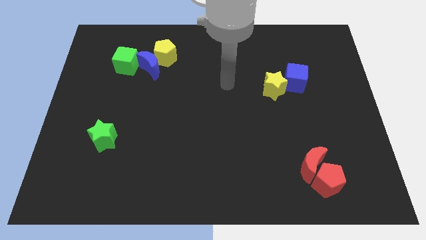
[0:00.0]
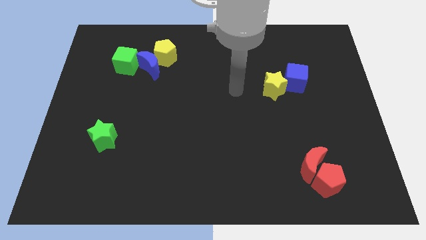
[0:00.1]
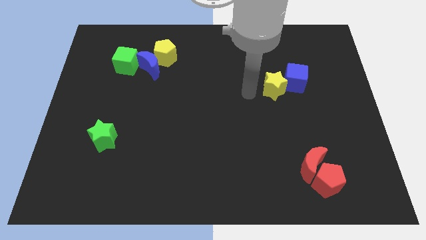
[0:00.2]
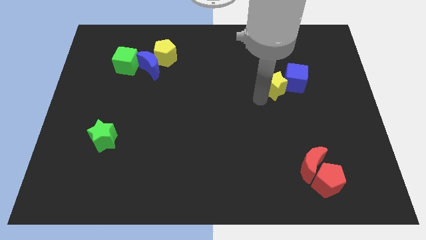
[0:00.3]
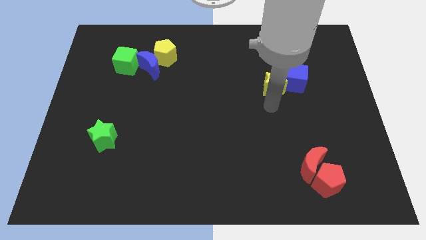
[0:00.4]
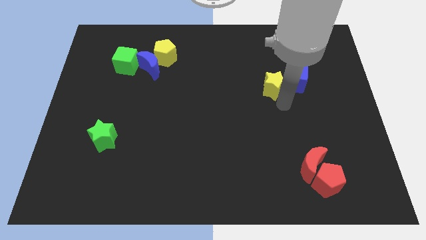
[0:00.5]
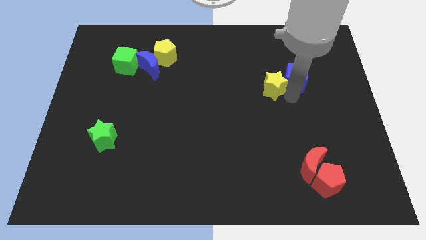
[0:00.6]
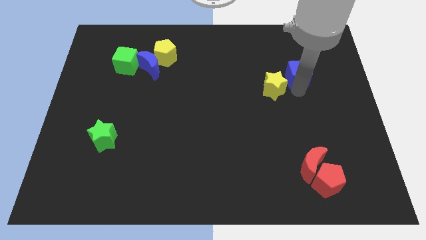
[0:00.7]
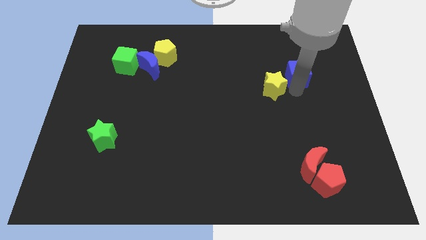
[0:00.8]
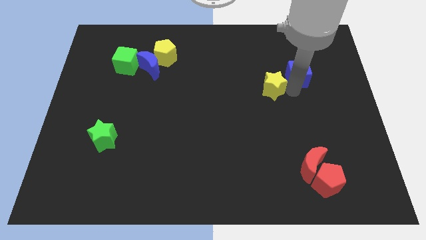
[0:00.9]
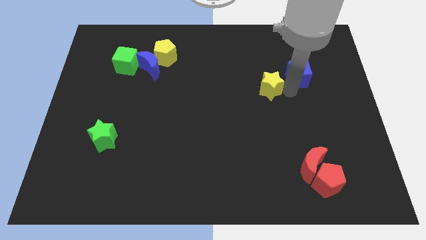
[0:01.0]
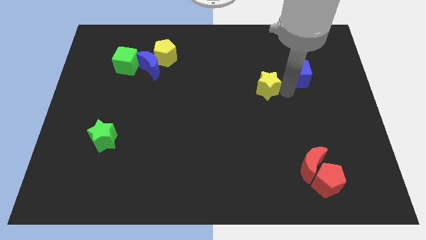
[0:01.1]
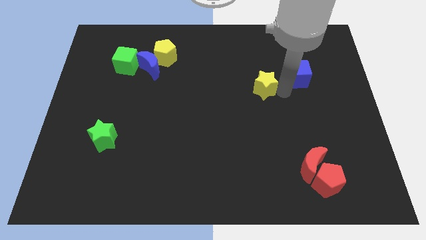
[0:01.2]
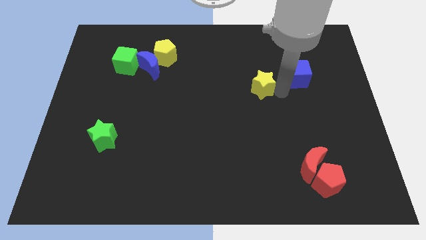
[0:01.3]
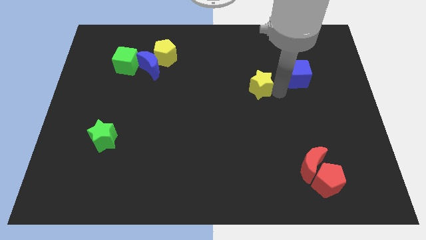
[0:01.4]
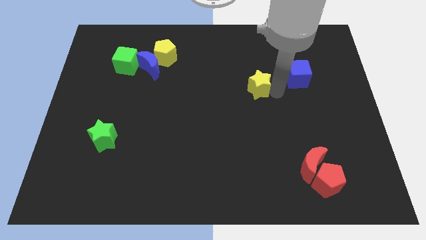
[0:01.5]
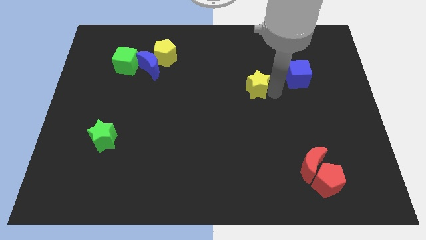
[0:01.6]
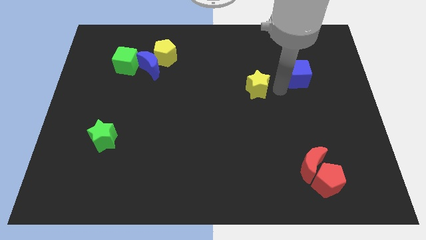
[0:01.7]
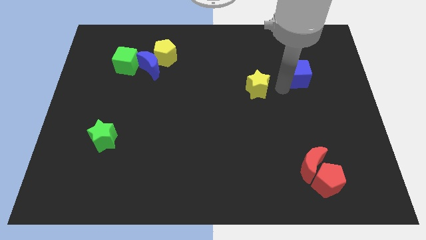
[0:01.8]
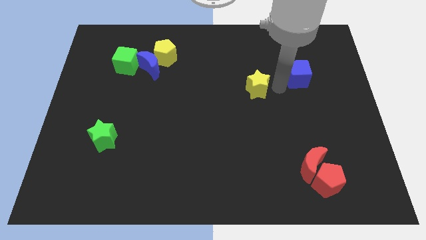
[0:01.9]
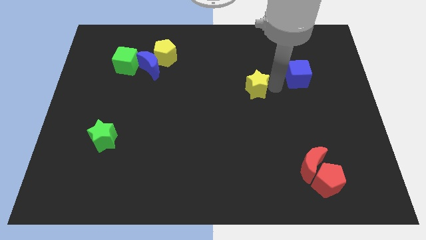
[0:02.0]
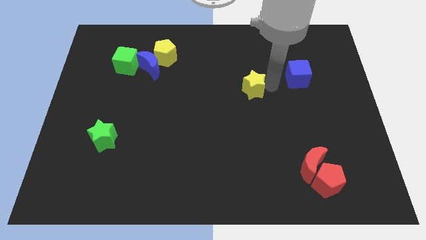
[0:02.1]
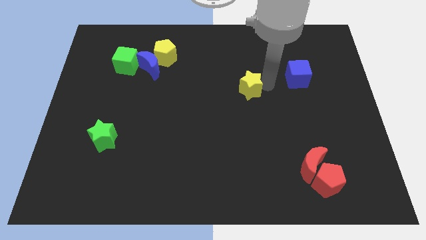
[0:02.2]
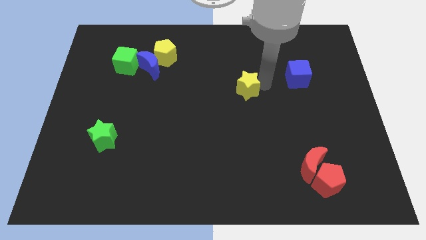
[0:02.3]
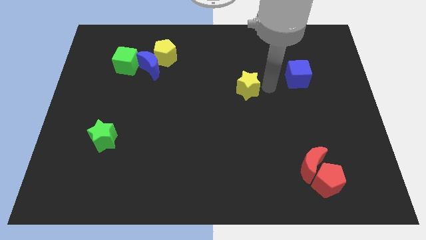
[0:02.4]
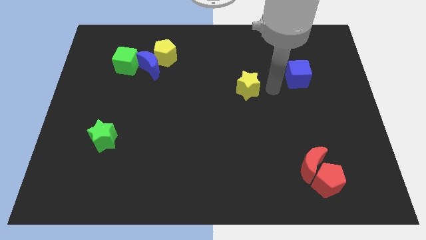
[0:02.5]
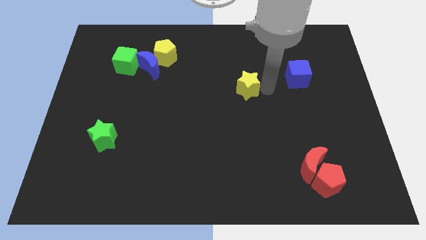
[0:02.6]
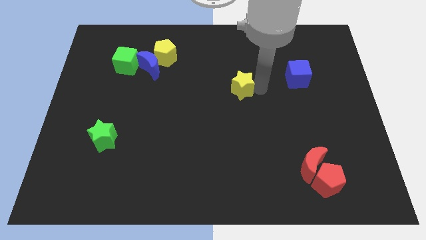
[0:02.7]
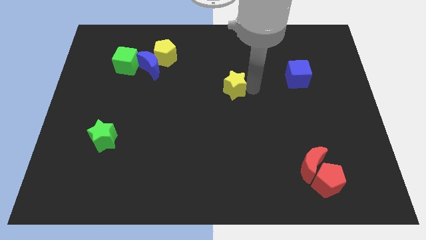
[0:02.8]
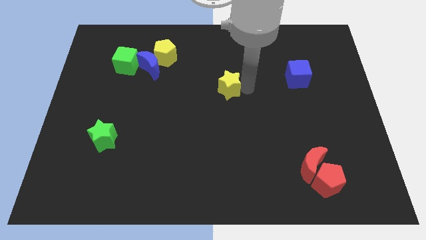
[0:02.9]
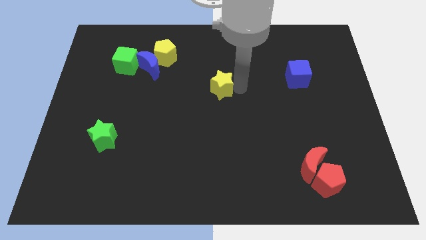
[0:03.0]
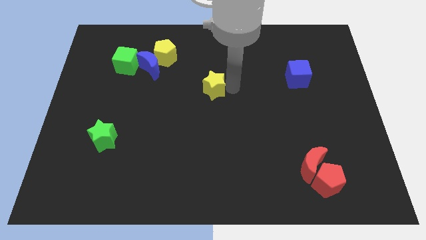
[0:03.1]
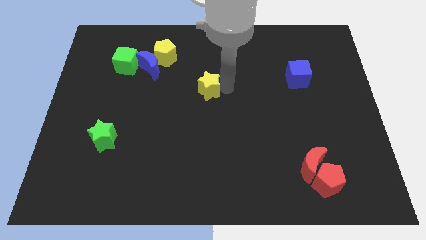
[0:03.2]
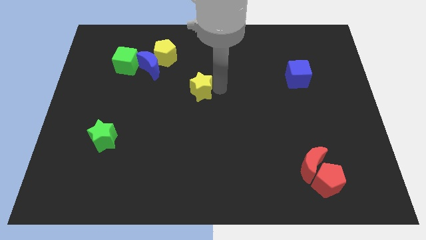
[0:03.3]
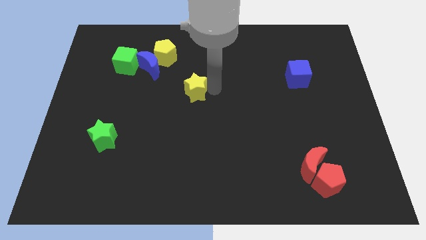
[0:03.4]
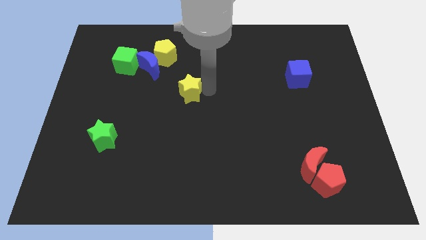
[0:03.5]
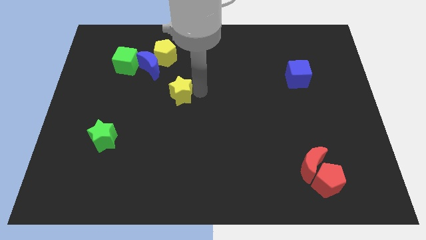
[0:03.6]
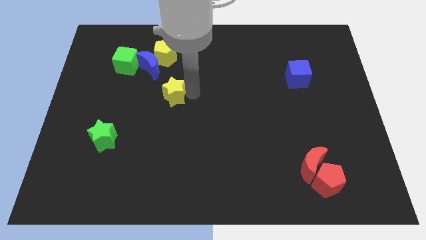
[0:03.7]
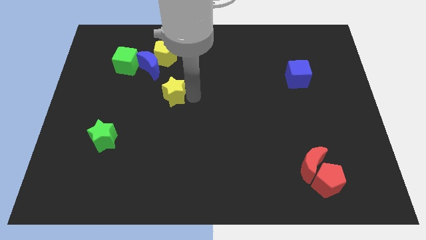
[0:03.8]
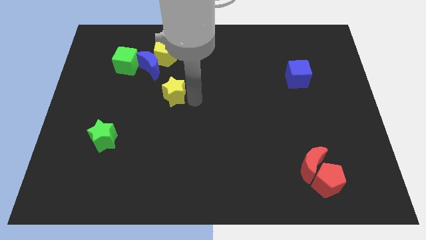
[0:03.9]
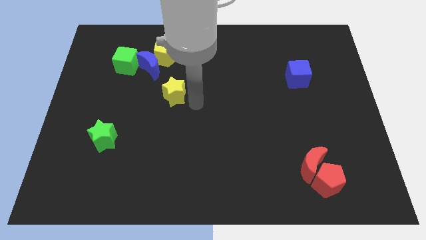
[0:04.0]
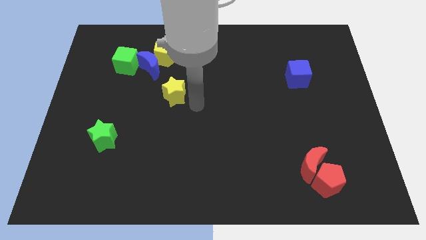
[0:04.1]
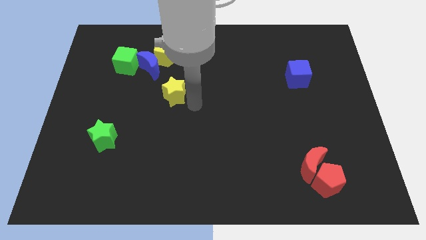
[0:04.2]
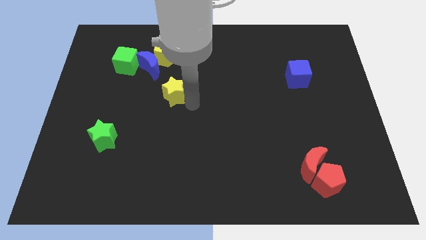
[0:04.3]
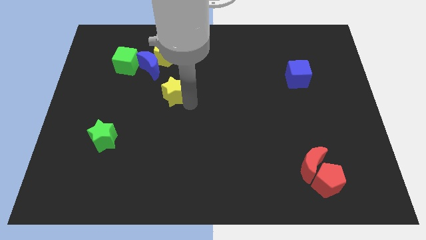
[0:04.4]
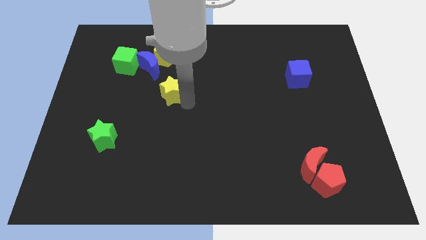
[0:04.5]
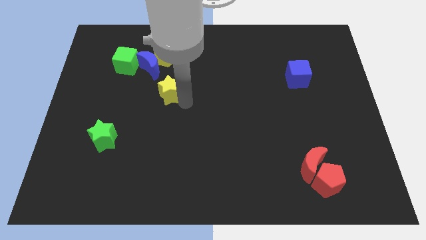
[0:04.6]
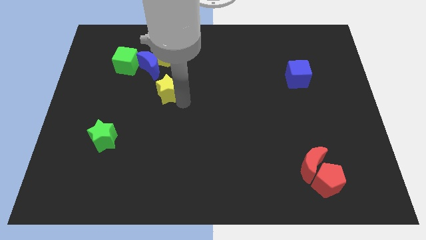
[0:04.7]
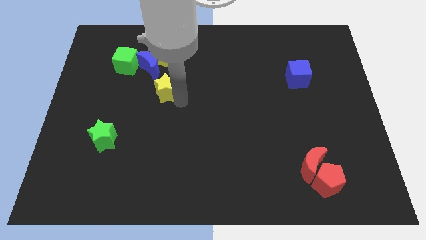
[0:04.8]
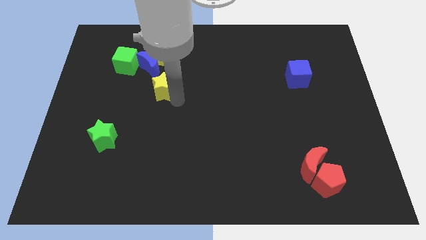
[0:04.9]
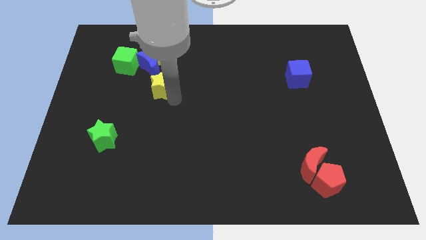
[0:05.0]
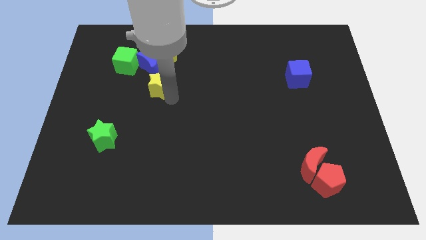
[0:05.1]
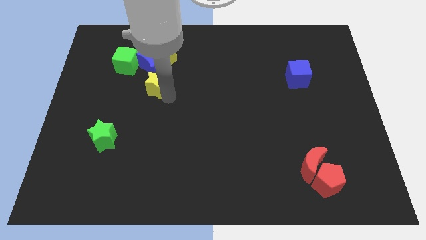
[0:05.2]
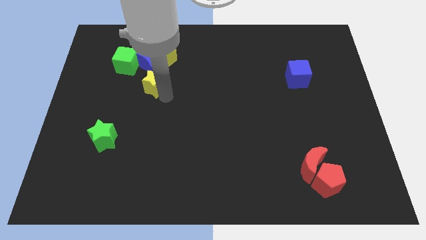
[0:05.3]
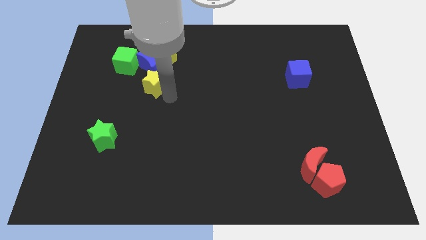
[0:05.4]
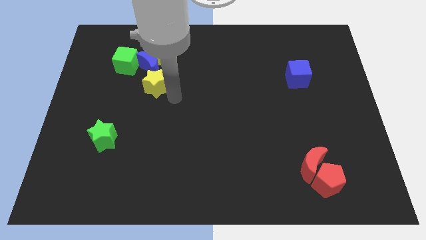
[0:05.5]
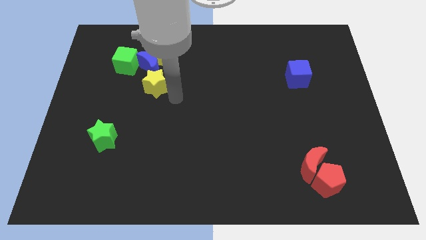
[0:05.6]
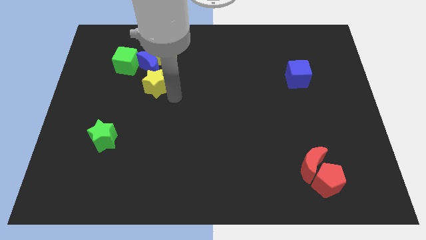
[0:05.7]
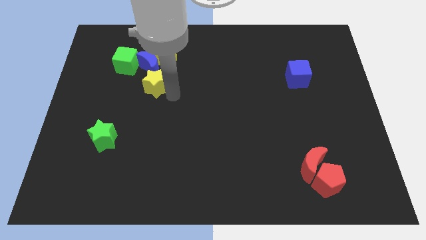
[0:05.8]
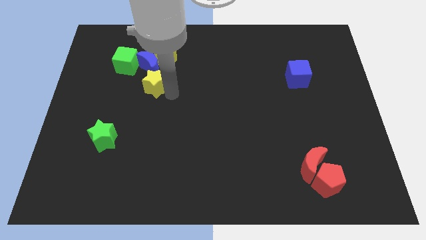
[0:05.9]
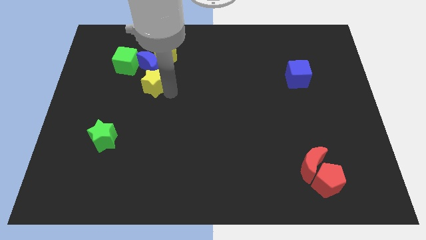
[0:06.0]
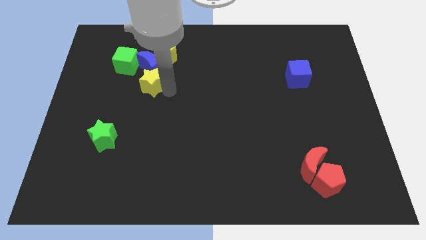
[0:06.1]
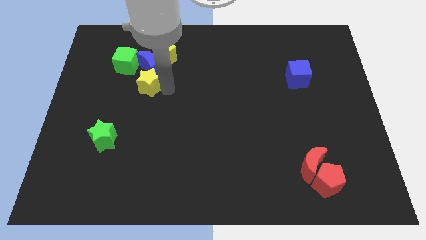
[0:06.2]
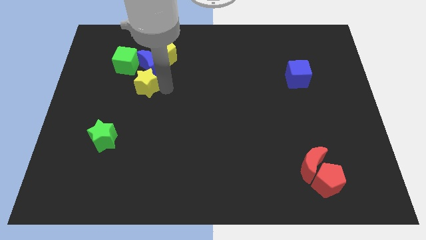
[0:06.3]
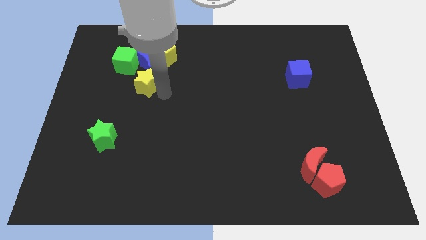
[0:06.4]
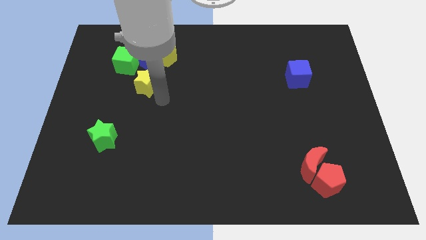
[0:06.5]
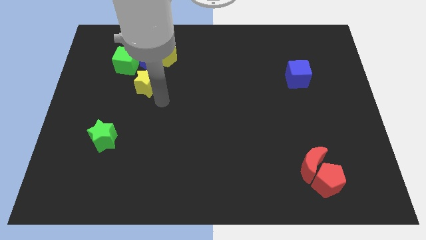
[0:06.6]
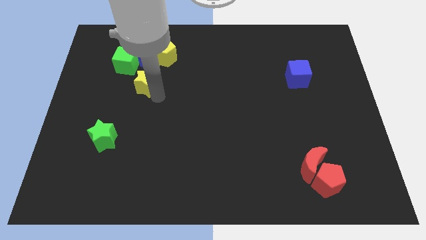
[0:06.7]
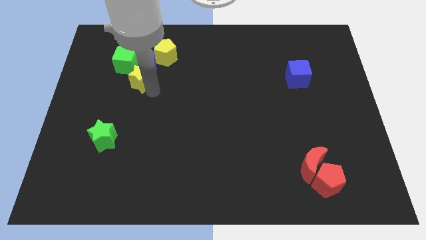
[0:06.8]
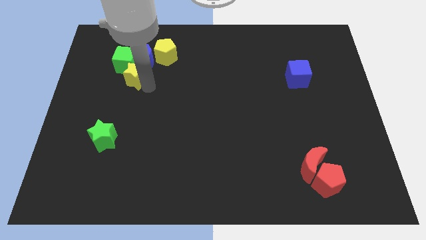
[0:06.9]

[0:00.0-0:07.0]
push the yellow star towards the green cube

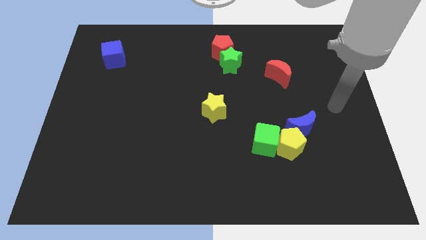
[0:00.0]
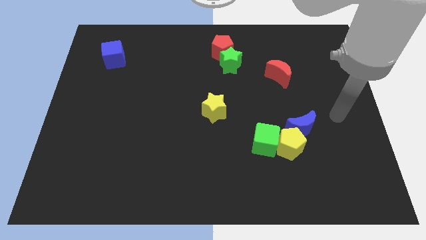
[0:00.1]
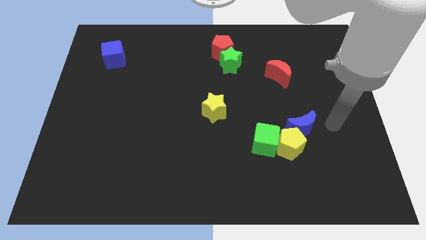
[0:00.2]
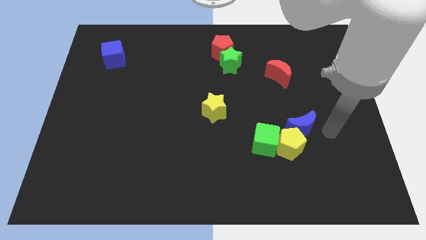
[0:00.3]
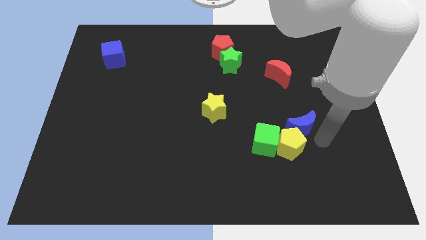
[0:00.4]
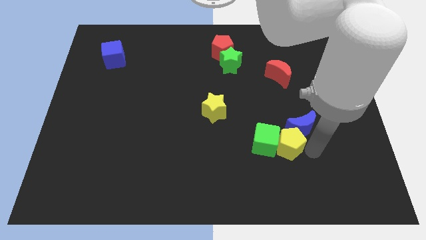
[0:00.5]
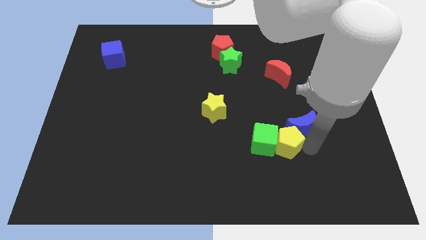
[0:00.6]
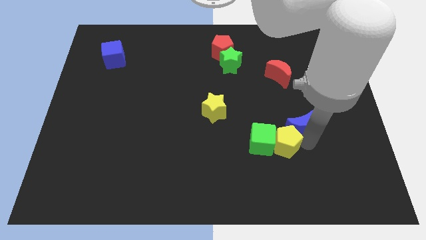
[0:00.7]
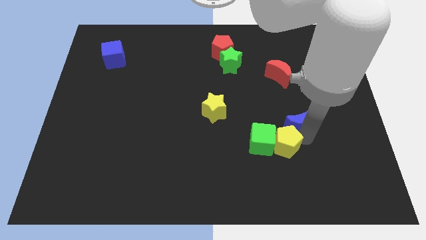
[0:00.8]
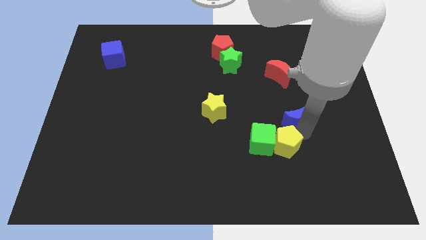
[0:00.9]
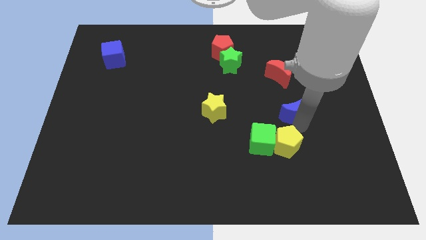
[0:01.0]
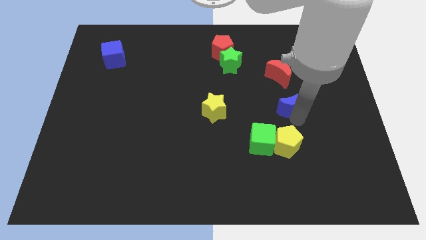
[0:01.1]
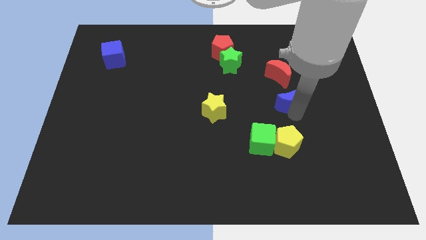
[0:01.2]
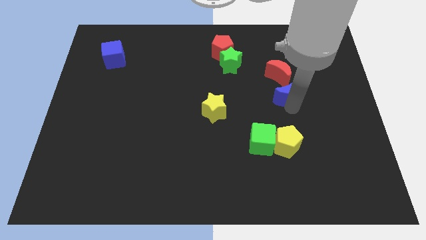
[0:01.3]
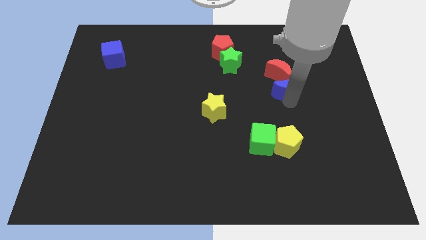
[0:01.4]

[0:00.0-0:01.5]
put the blue moon close to the red moon
